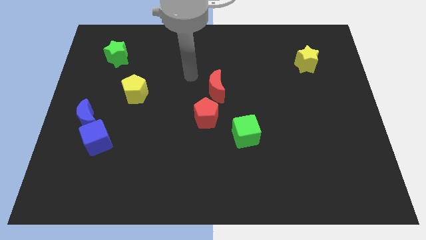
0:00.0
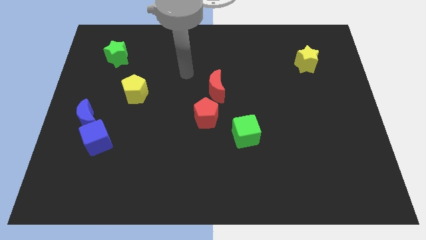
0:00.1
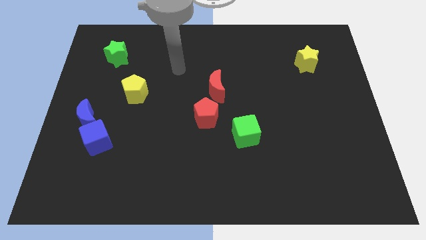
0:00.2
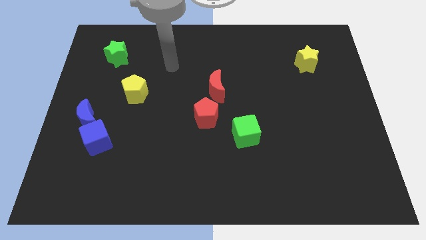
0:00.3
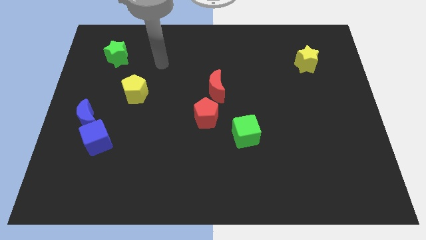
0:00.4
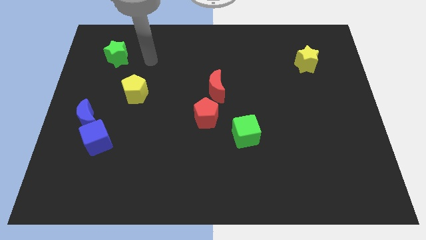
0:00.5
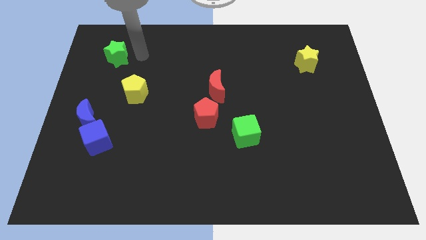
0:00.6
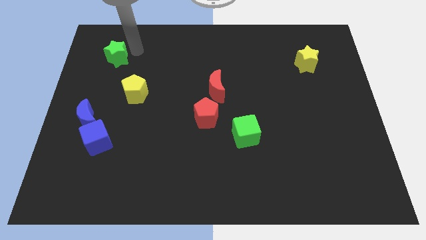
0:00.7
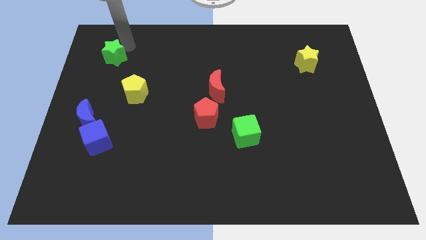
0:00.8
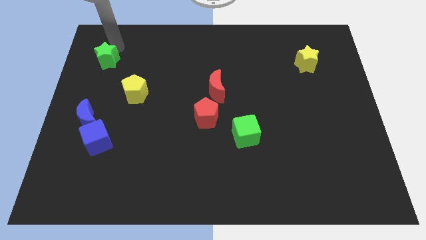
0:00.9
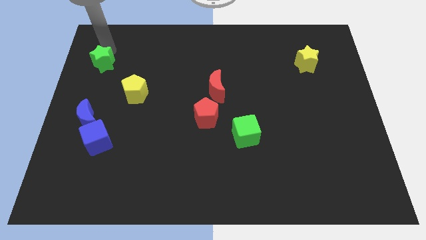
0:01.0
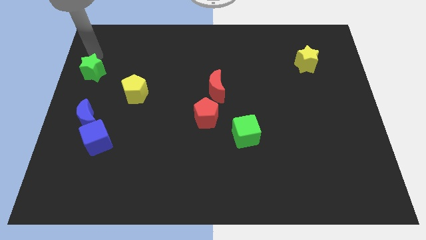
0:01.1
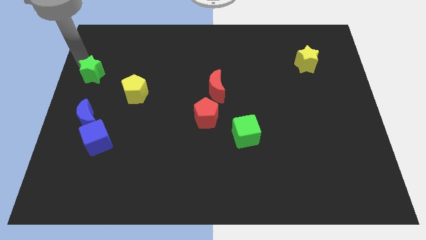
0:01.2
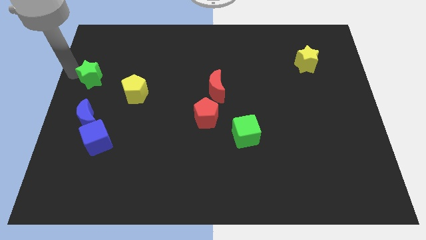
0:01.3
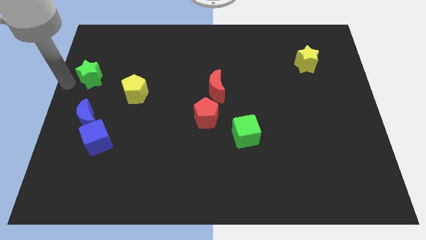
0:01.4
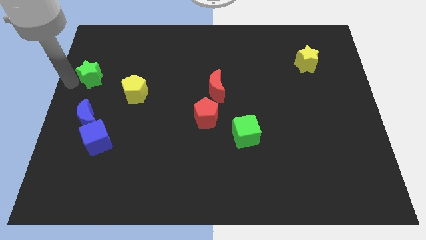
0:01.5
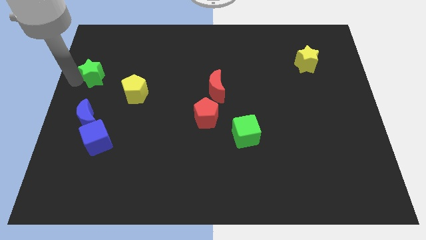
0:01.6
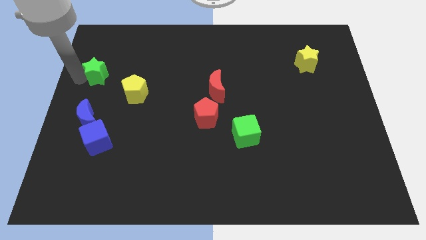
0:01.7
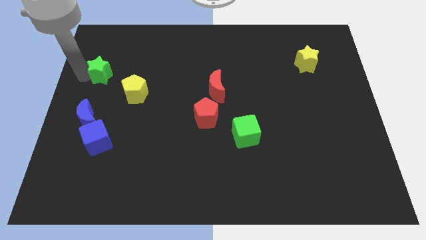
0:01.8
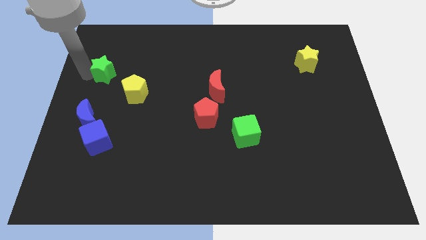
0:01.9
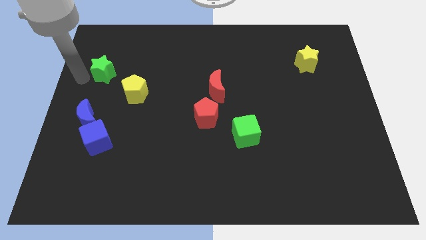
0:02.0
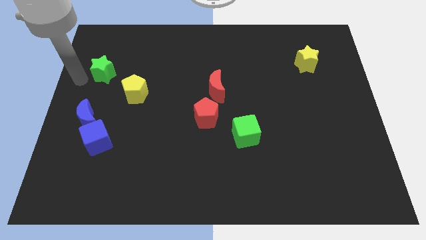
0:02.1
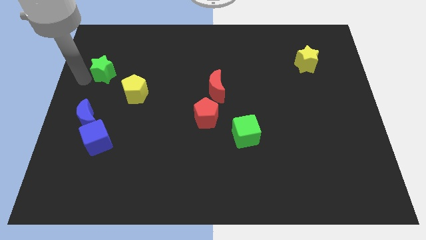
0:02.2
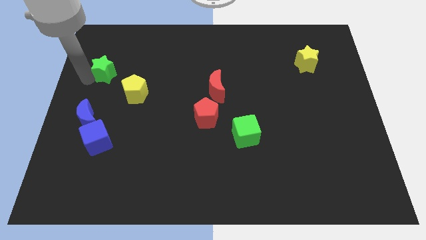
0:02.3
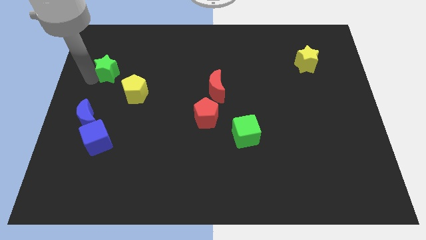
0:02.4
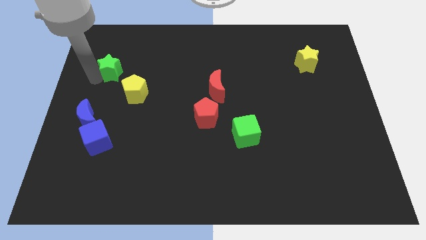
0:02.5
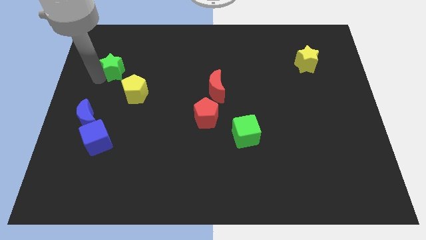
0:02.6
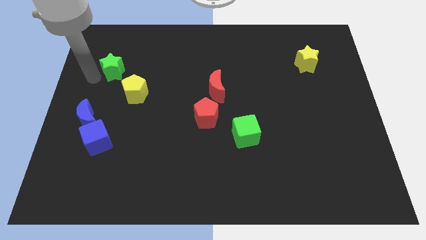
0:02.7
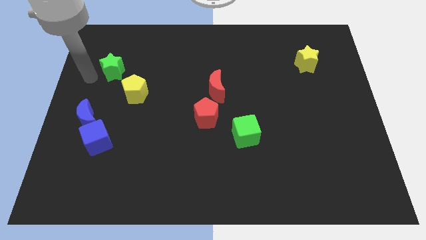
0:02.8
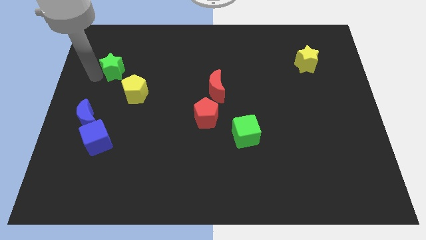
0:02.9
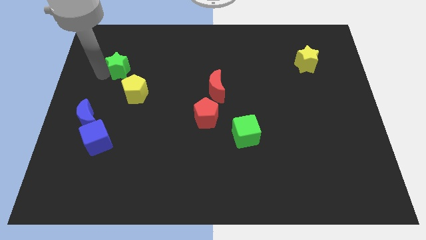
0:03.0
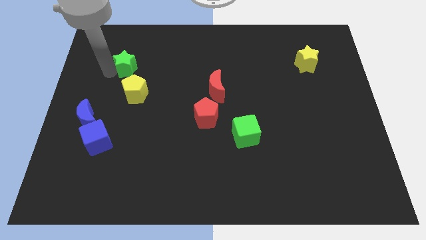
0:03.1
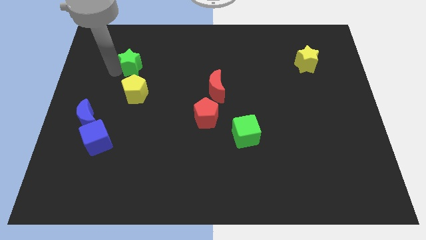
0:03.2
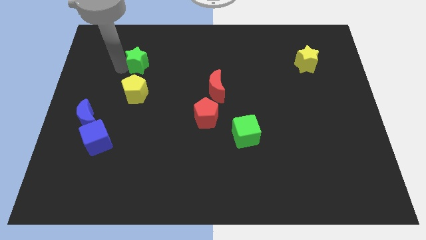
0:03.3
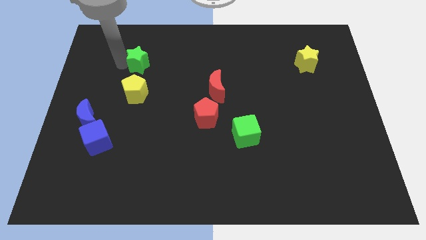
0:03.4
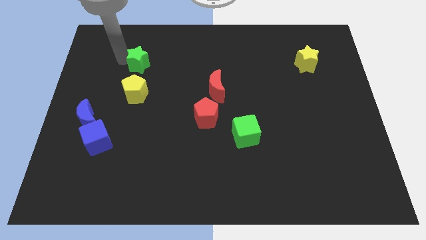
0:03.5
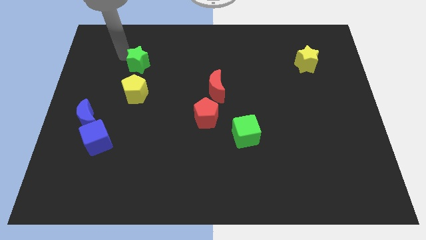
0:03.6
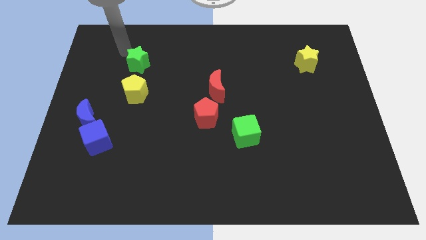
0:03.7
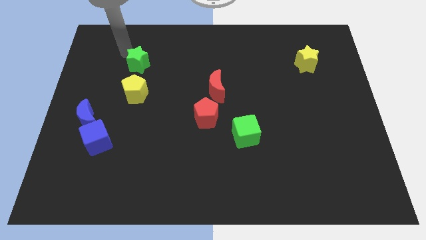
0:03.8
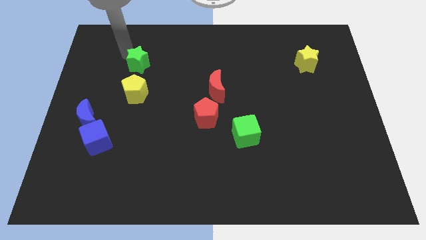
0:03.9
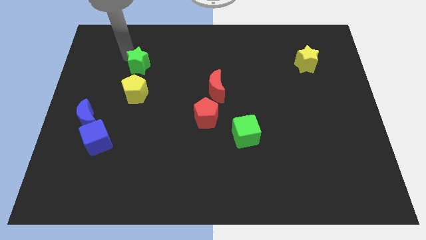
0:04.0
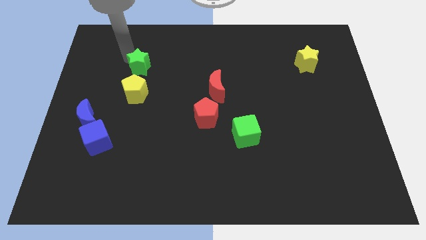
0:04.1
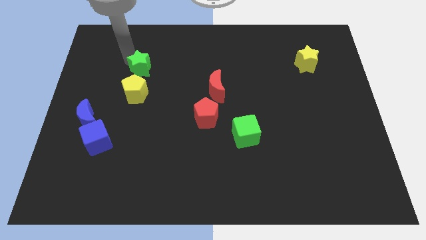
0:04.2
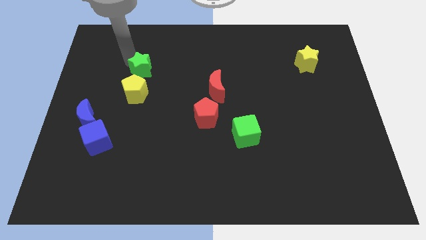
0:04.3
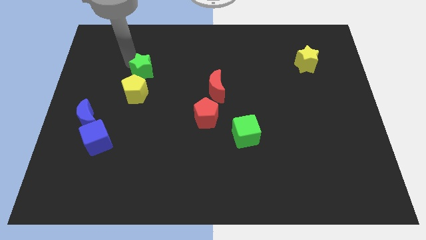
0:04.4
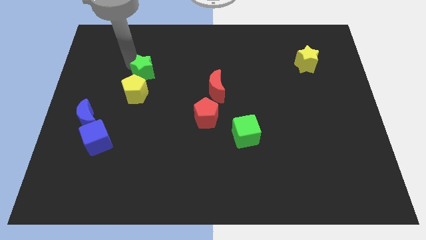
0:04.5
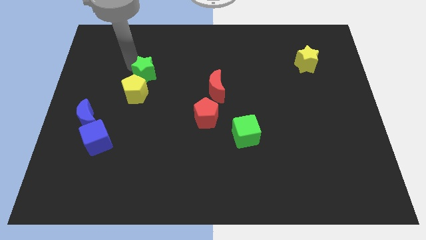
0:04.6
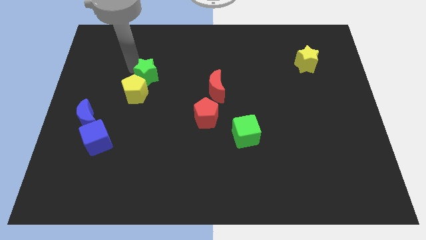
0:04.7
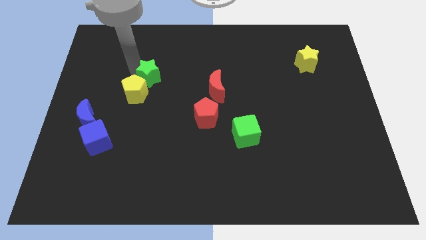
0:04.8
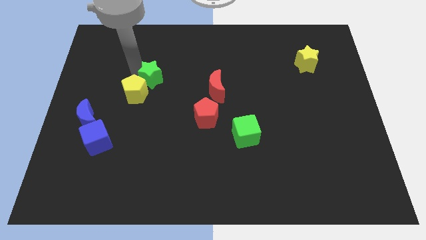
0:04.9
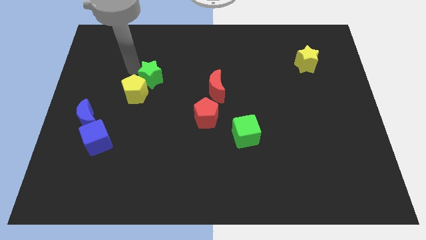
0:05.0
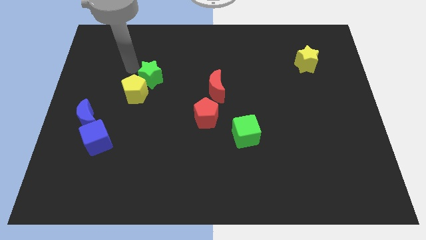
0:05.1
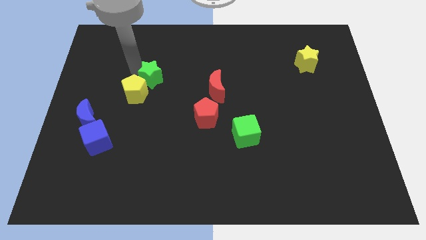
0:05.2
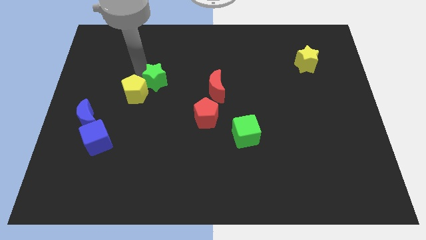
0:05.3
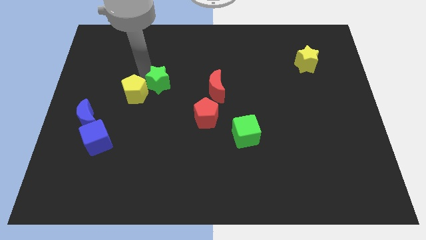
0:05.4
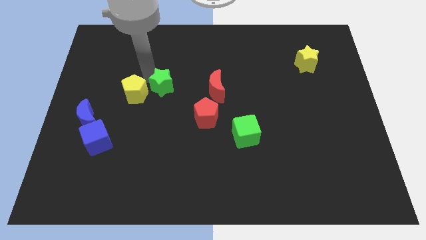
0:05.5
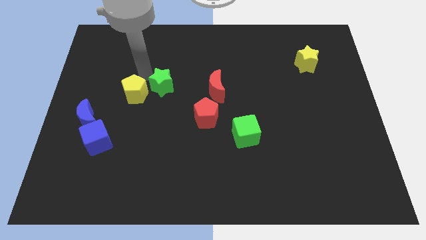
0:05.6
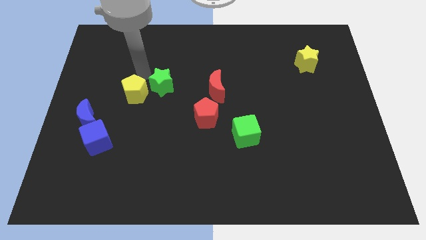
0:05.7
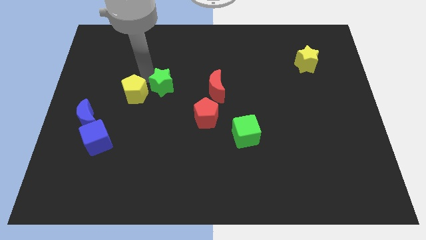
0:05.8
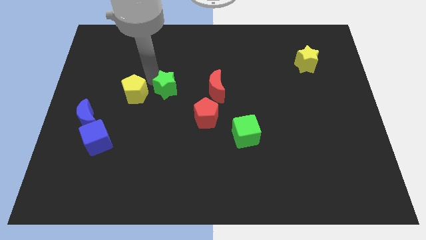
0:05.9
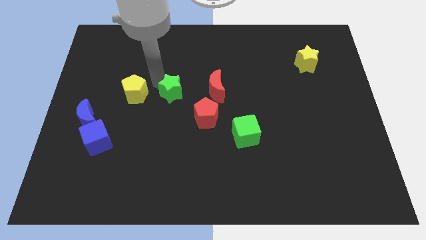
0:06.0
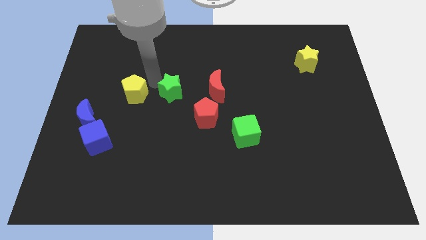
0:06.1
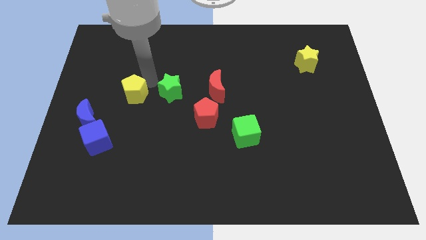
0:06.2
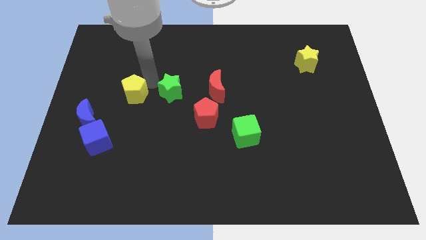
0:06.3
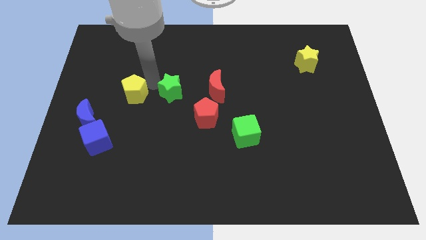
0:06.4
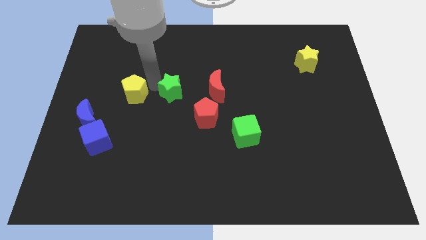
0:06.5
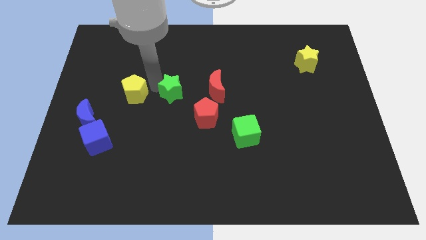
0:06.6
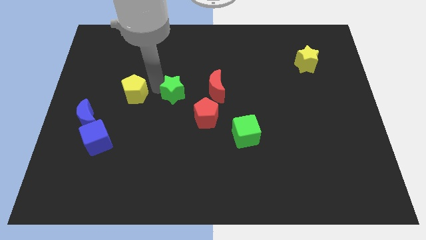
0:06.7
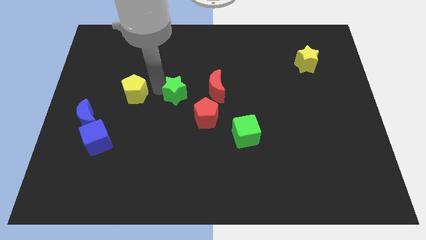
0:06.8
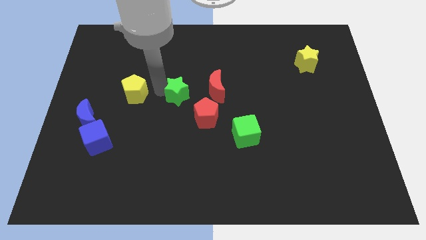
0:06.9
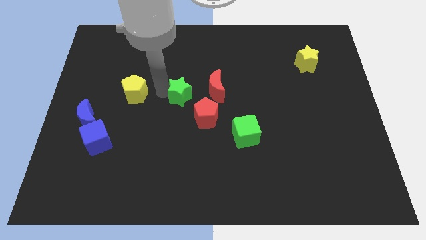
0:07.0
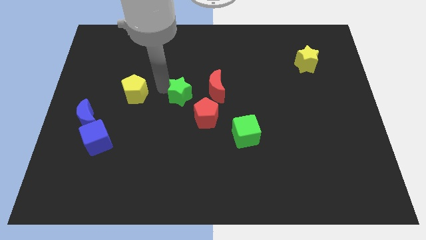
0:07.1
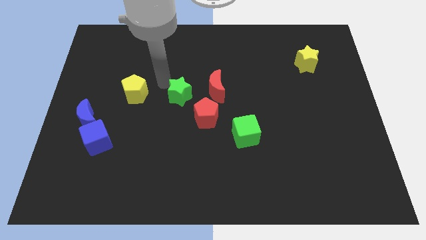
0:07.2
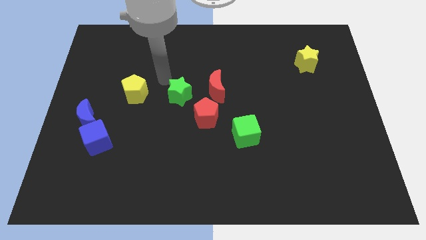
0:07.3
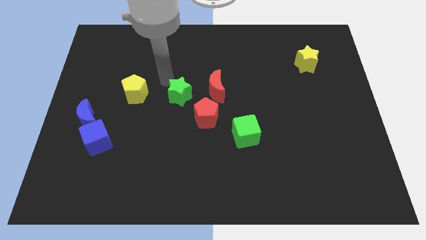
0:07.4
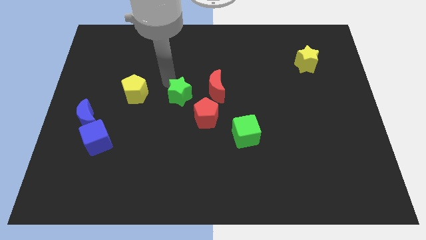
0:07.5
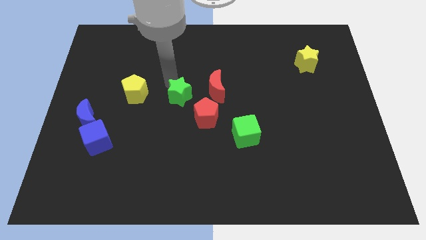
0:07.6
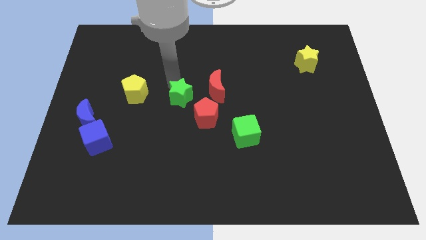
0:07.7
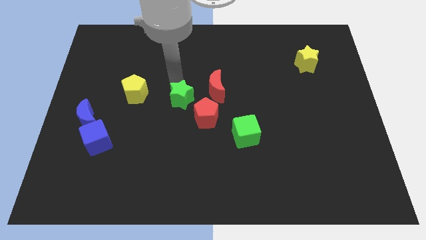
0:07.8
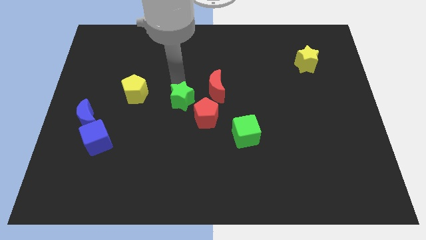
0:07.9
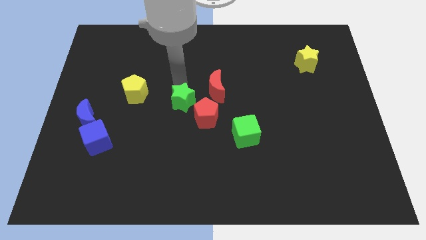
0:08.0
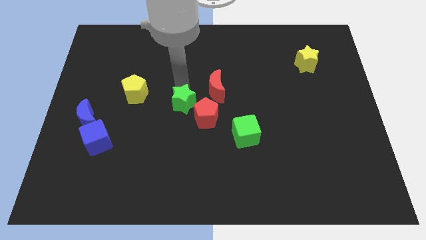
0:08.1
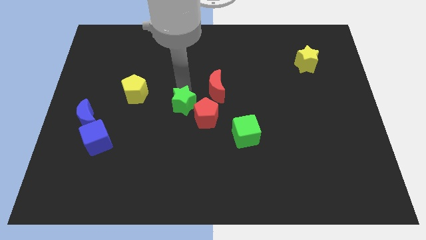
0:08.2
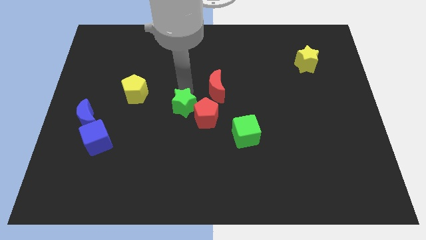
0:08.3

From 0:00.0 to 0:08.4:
slide the green star to the red pentagon
